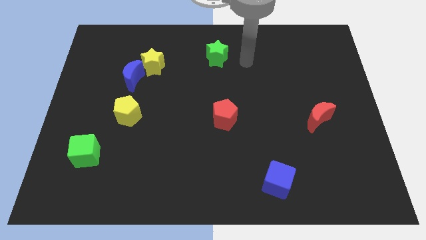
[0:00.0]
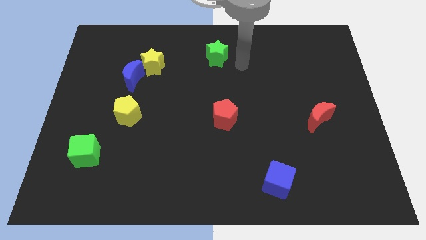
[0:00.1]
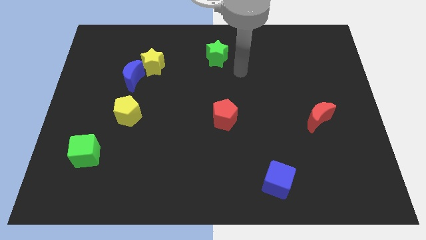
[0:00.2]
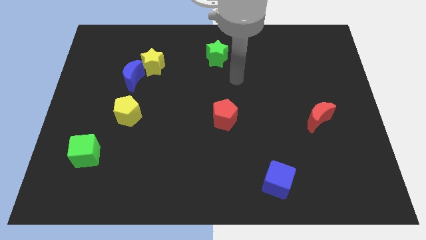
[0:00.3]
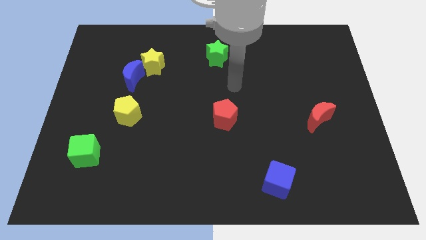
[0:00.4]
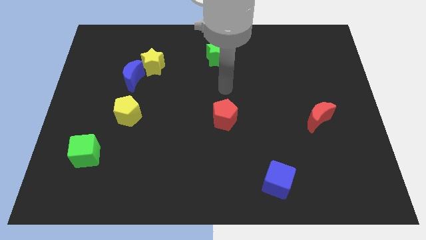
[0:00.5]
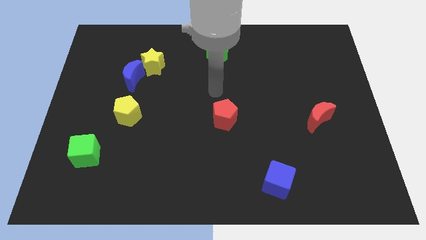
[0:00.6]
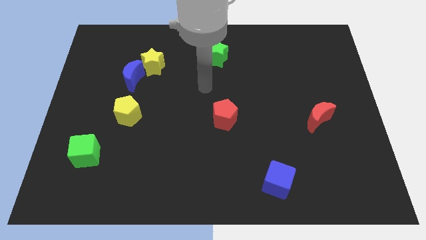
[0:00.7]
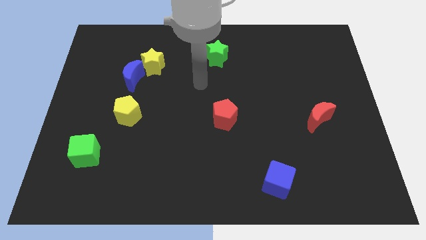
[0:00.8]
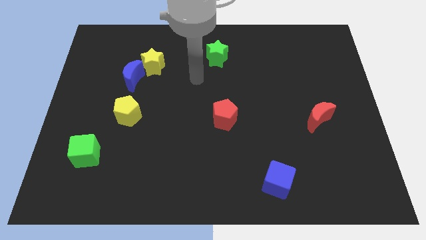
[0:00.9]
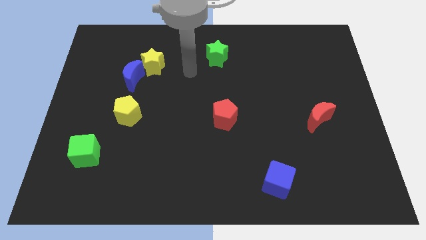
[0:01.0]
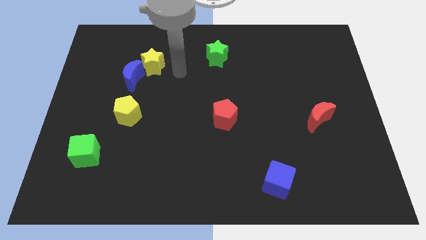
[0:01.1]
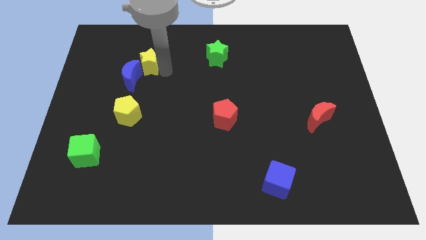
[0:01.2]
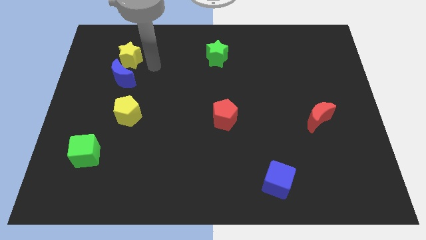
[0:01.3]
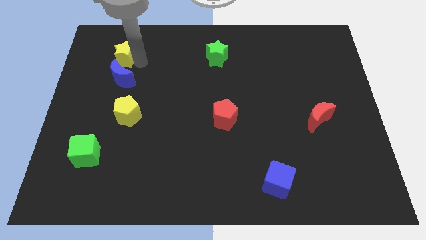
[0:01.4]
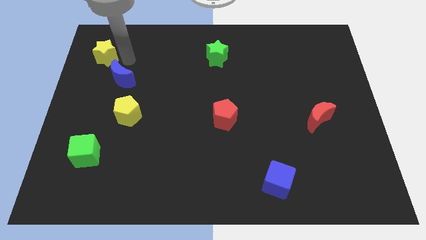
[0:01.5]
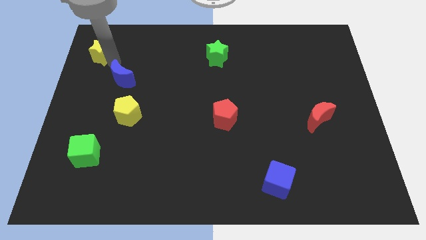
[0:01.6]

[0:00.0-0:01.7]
move the blue moon away from the yellow star

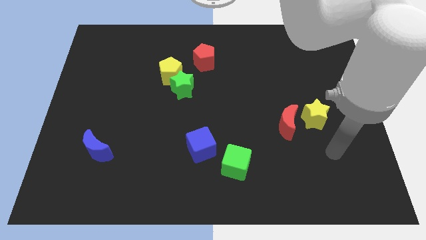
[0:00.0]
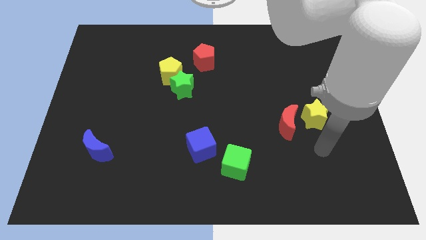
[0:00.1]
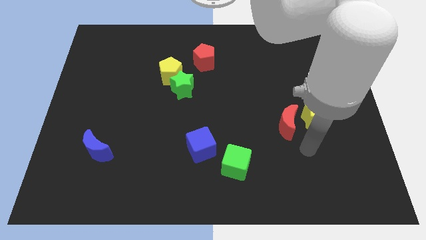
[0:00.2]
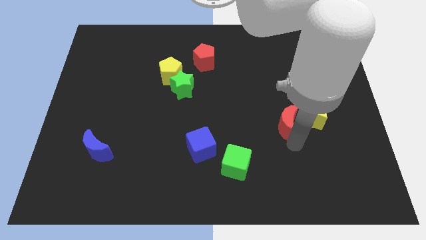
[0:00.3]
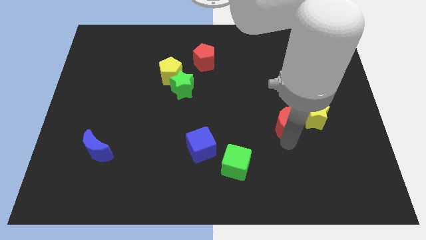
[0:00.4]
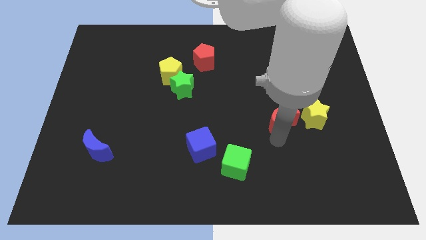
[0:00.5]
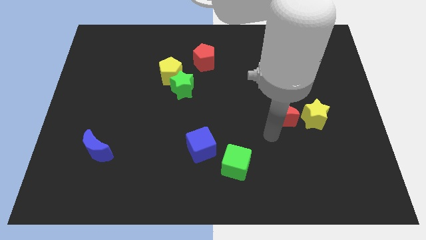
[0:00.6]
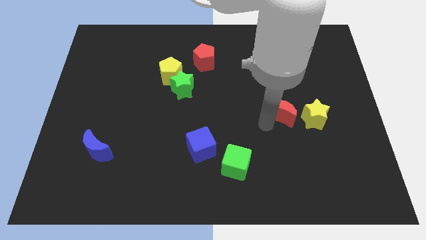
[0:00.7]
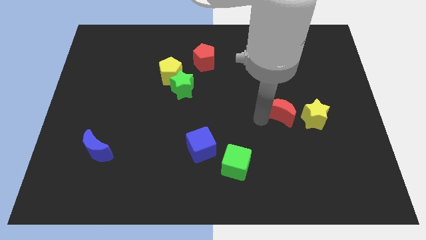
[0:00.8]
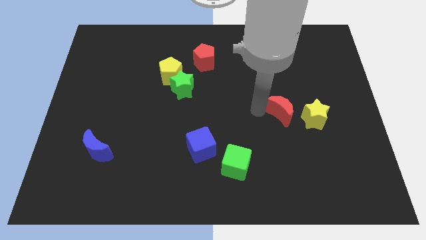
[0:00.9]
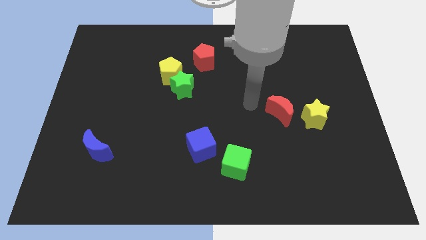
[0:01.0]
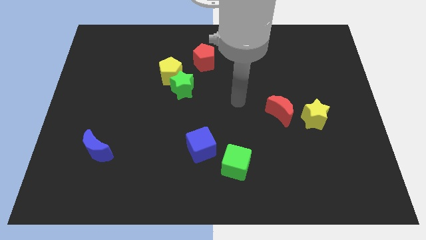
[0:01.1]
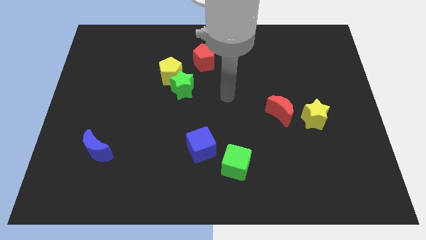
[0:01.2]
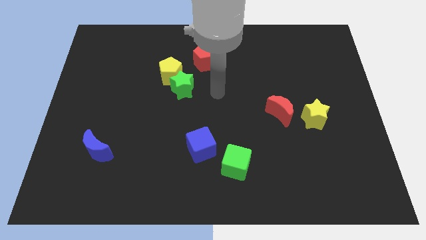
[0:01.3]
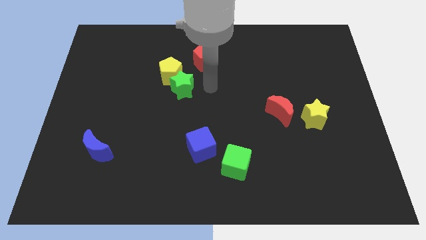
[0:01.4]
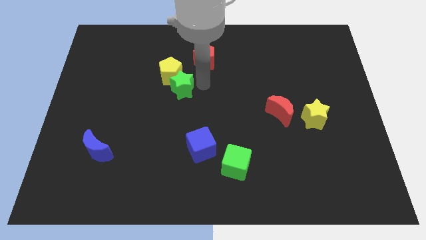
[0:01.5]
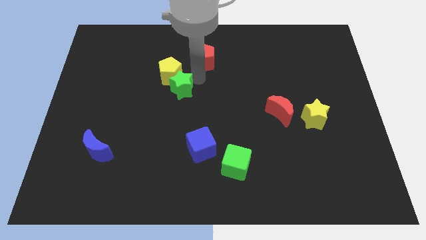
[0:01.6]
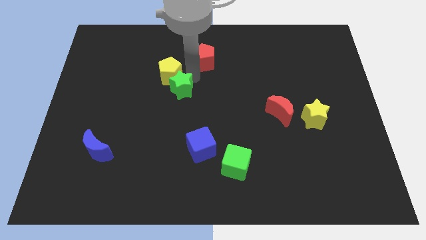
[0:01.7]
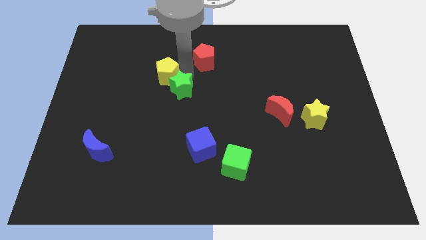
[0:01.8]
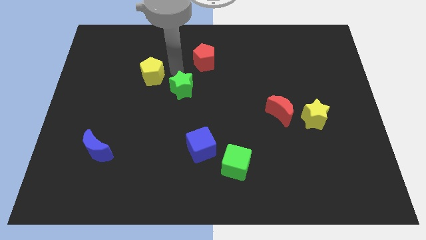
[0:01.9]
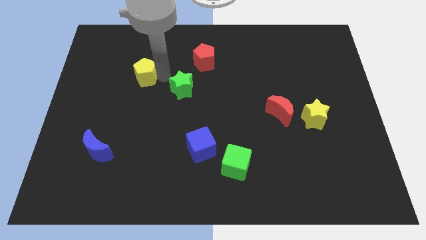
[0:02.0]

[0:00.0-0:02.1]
separate the green star from the yellow pentagon

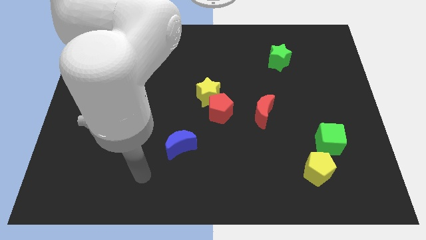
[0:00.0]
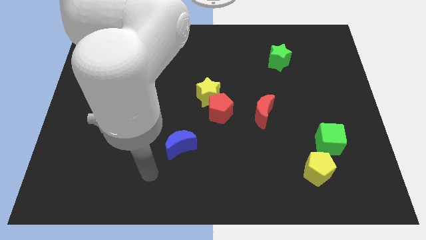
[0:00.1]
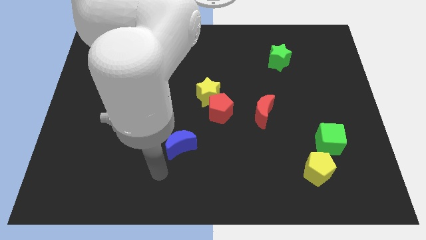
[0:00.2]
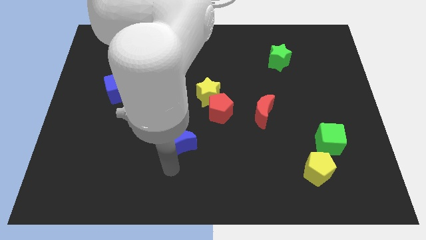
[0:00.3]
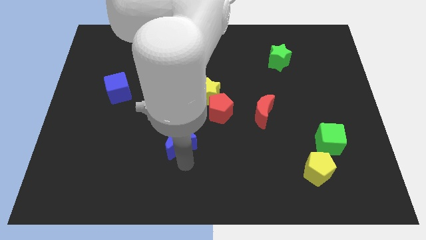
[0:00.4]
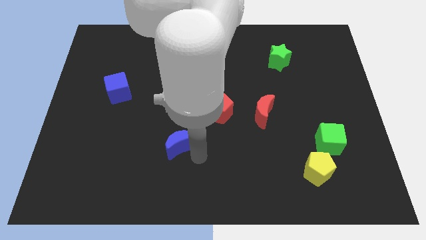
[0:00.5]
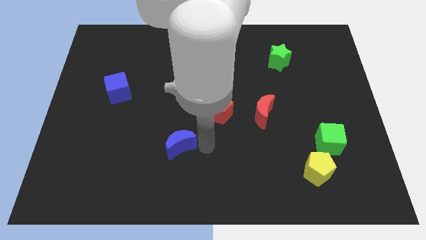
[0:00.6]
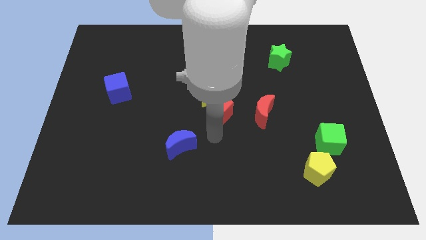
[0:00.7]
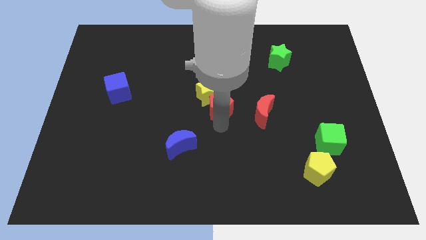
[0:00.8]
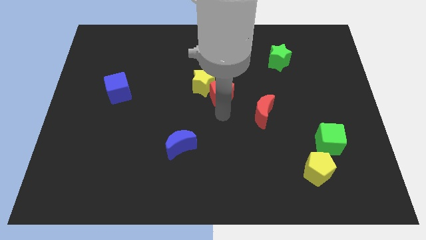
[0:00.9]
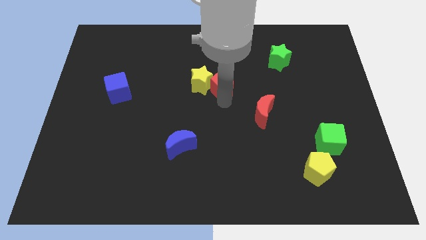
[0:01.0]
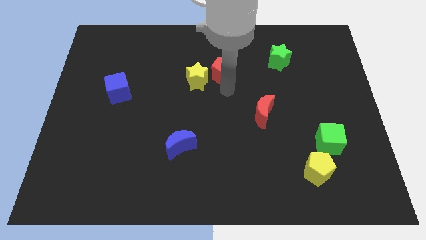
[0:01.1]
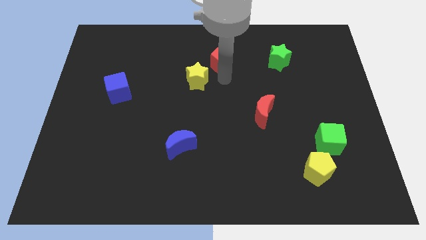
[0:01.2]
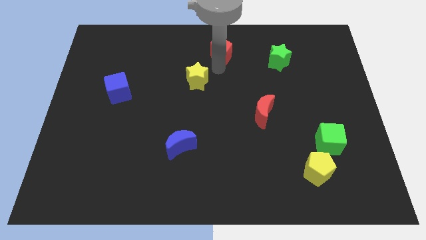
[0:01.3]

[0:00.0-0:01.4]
separate the yellow star from the red pentagon

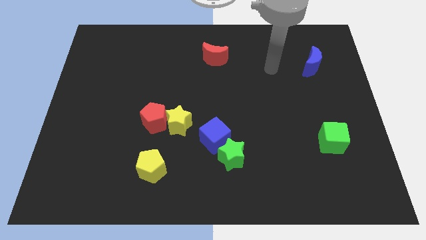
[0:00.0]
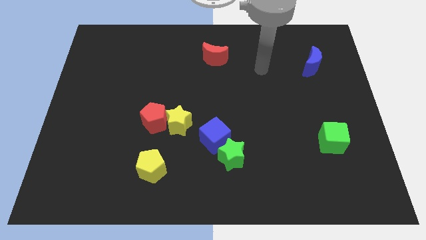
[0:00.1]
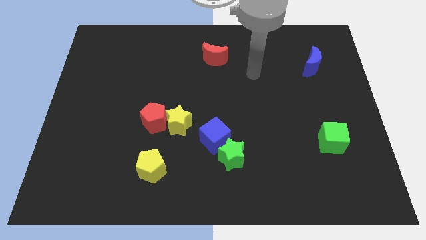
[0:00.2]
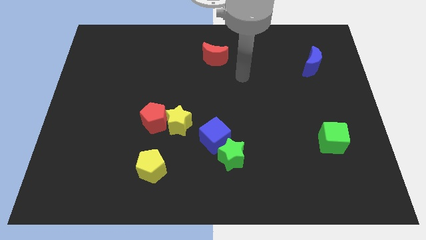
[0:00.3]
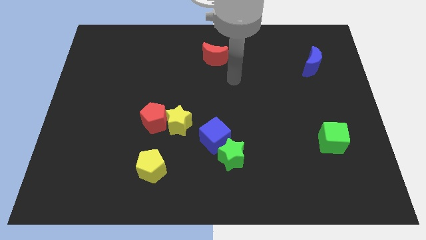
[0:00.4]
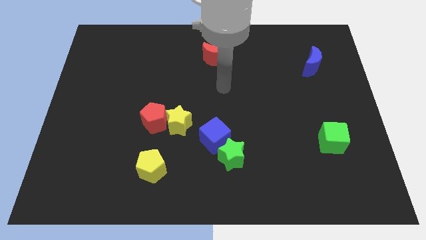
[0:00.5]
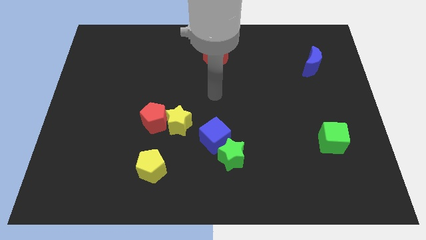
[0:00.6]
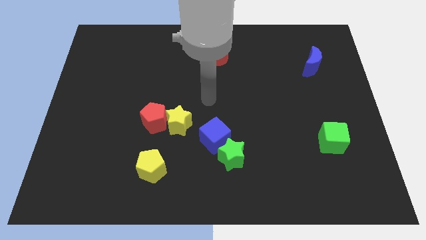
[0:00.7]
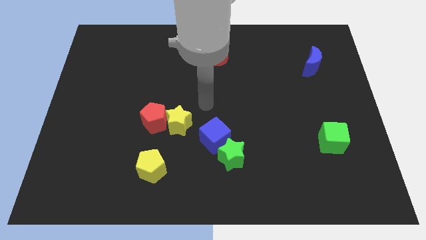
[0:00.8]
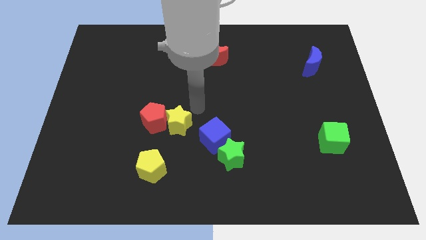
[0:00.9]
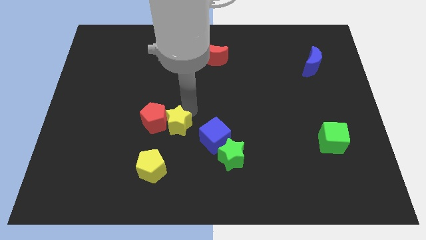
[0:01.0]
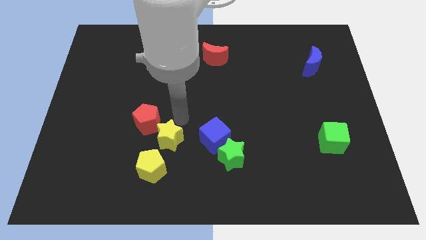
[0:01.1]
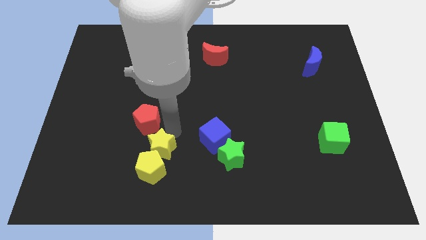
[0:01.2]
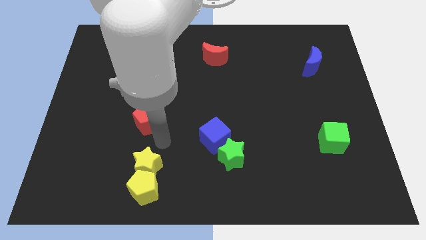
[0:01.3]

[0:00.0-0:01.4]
pull the red pentagon apart from the yellow star

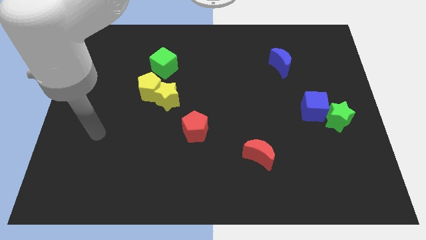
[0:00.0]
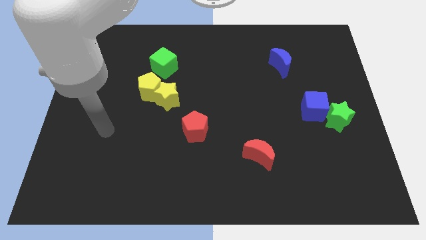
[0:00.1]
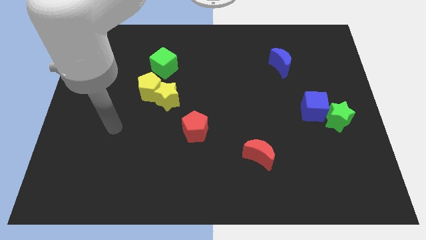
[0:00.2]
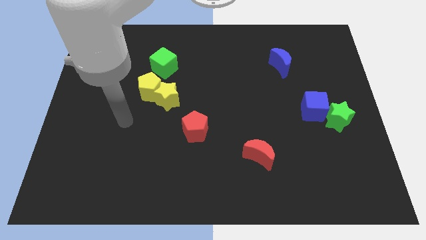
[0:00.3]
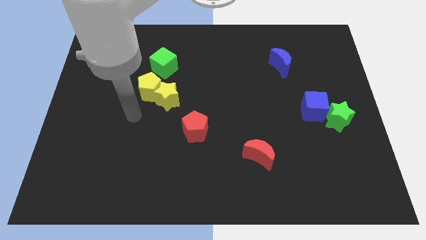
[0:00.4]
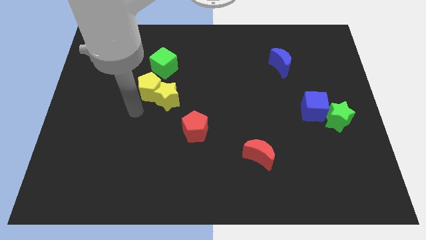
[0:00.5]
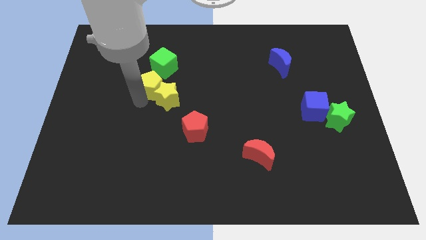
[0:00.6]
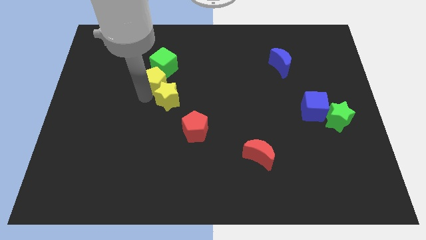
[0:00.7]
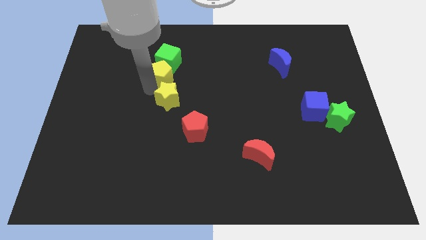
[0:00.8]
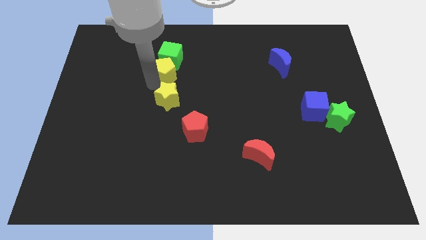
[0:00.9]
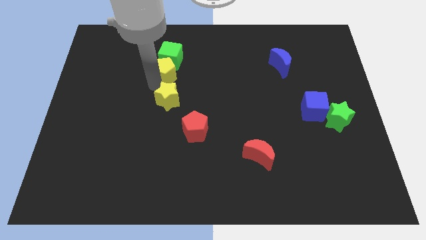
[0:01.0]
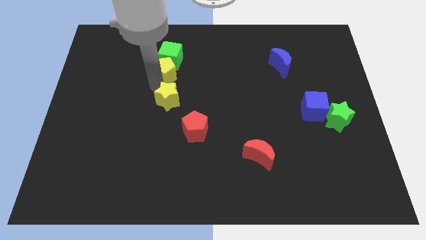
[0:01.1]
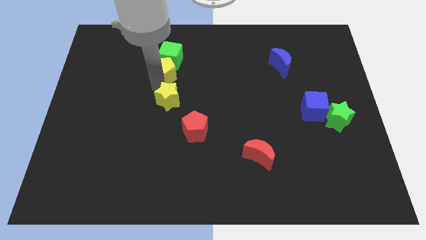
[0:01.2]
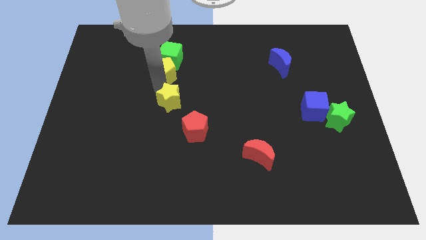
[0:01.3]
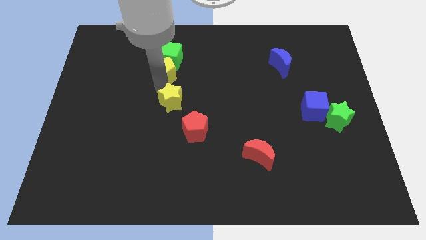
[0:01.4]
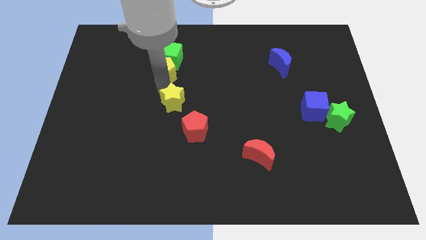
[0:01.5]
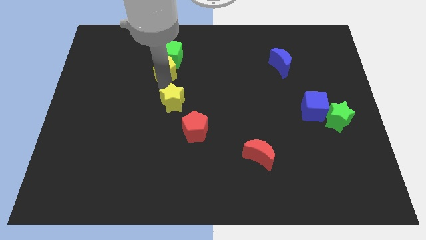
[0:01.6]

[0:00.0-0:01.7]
pull the yellow star apart from the yellow pentagon

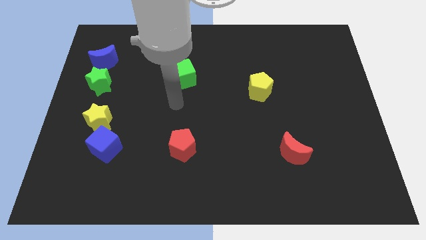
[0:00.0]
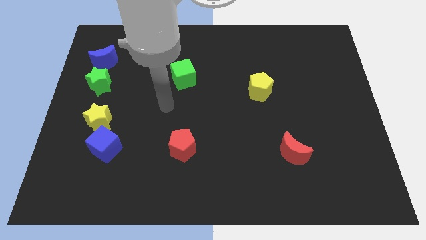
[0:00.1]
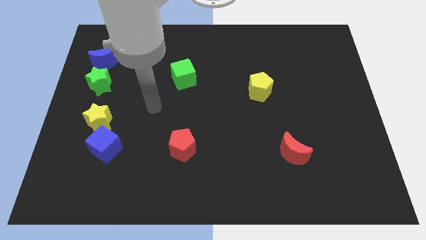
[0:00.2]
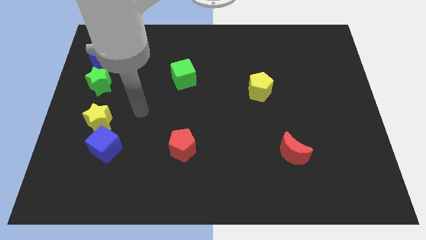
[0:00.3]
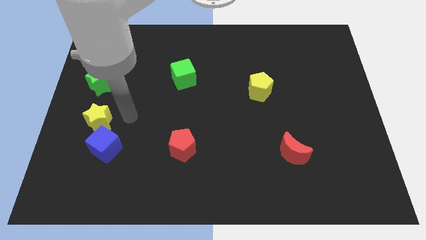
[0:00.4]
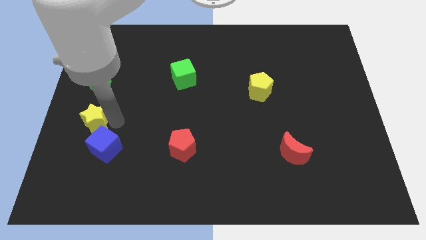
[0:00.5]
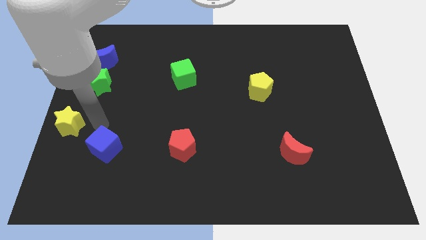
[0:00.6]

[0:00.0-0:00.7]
move the blue cube away from the yellow star

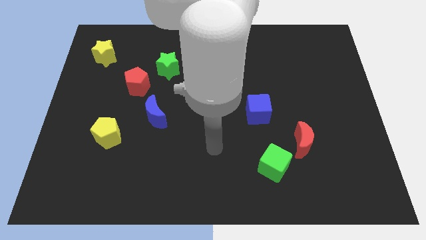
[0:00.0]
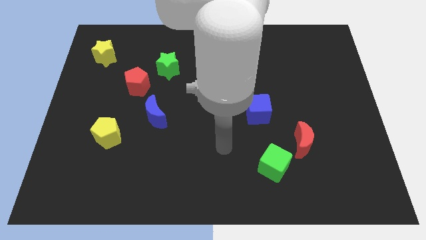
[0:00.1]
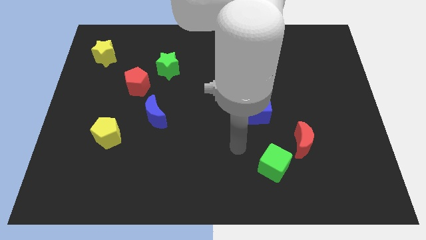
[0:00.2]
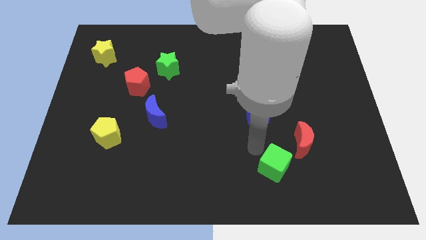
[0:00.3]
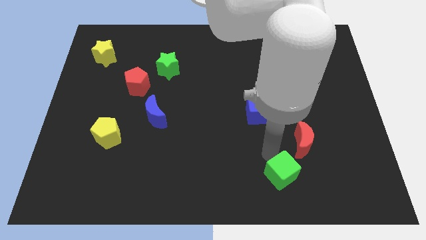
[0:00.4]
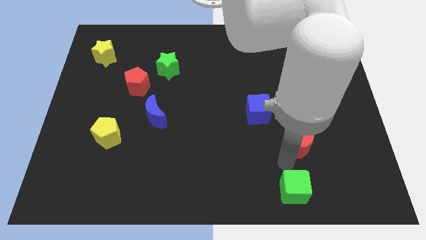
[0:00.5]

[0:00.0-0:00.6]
pull the red moon apart from the green cube
